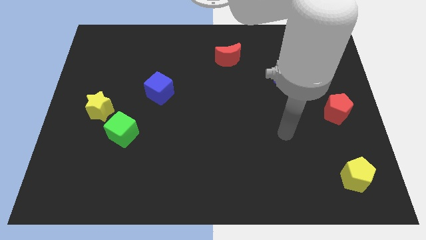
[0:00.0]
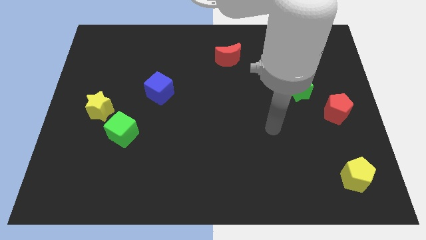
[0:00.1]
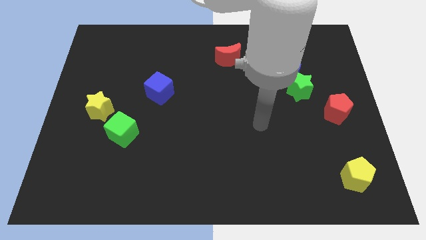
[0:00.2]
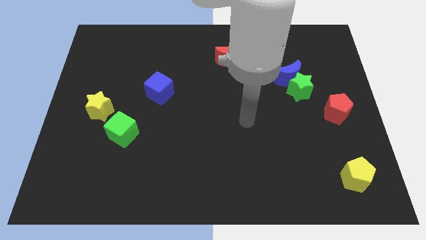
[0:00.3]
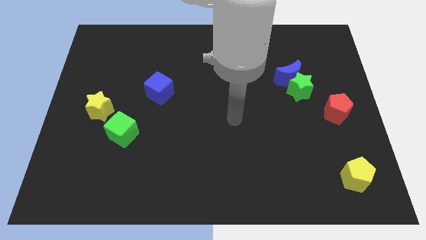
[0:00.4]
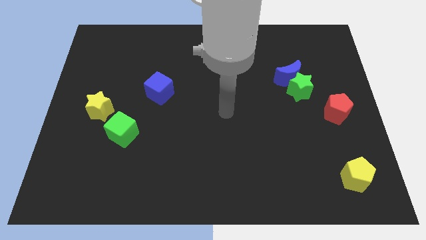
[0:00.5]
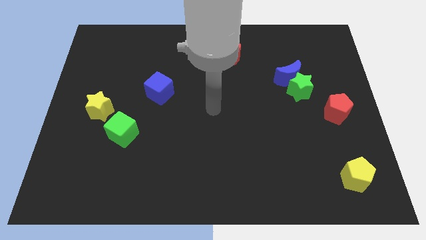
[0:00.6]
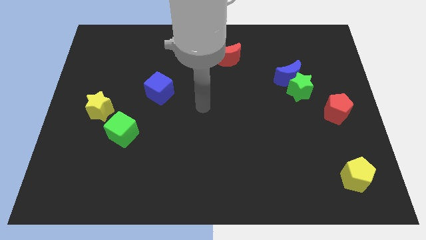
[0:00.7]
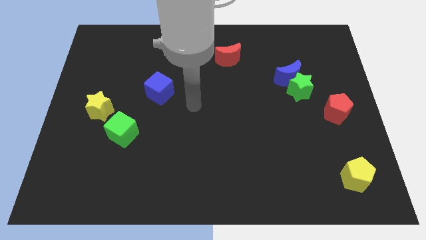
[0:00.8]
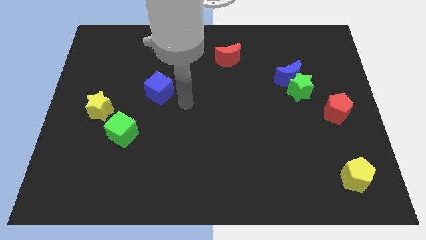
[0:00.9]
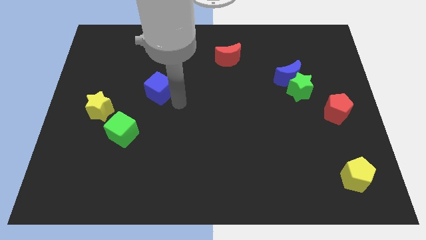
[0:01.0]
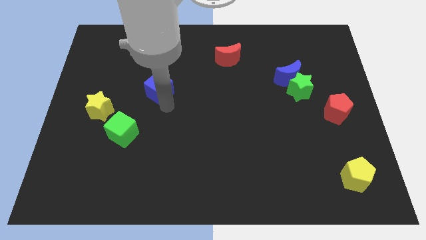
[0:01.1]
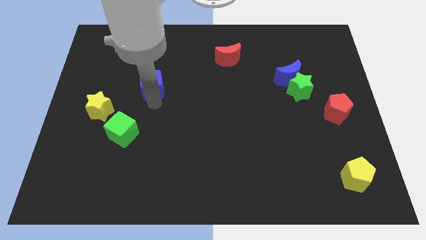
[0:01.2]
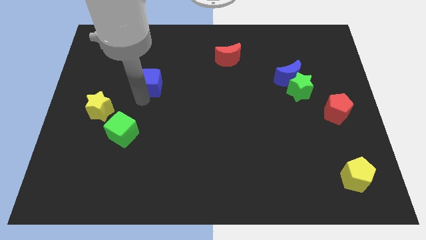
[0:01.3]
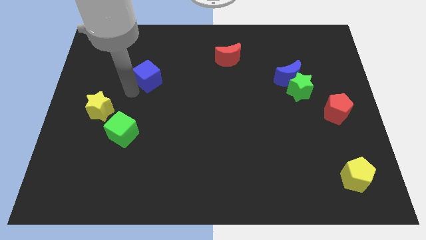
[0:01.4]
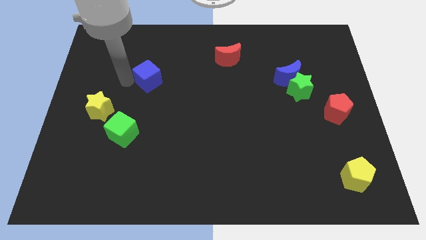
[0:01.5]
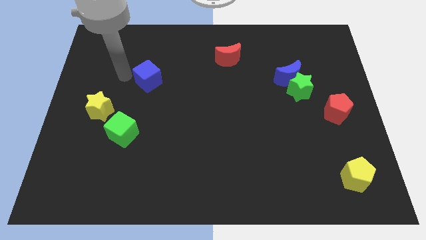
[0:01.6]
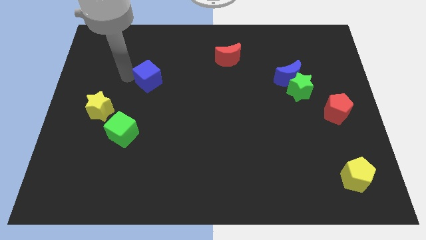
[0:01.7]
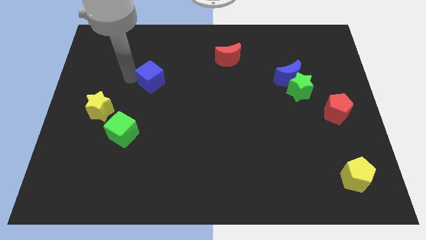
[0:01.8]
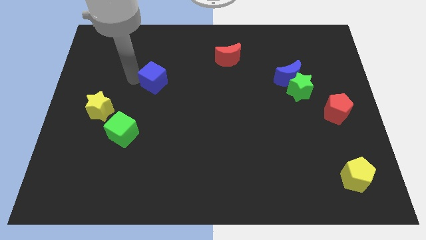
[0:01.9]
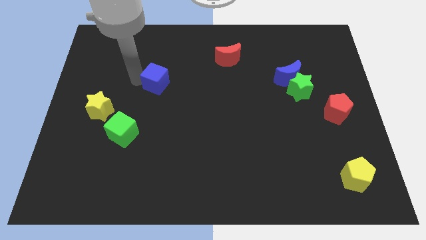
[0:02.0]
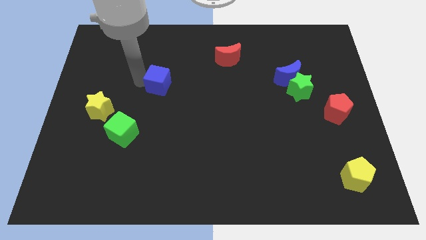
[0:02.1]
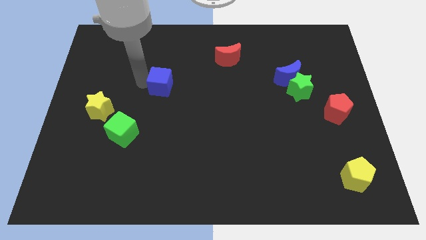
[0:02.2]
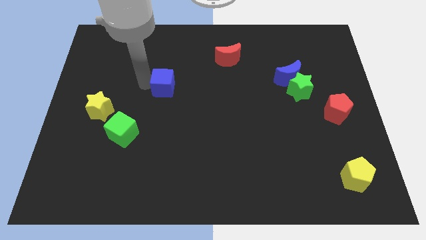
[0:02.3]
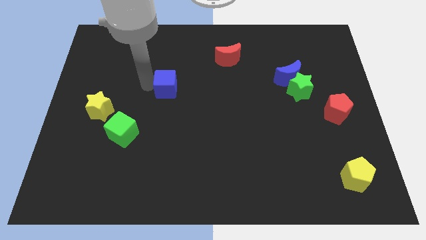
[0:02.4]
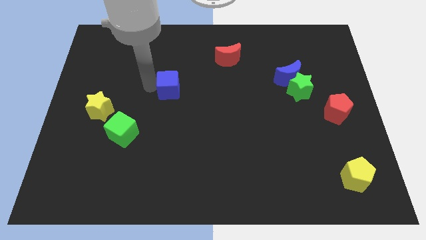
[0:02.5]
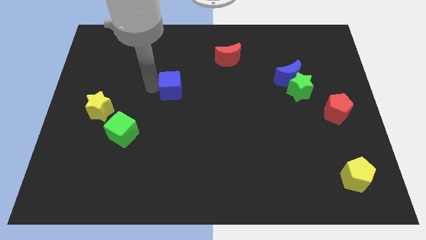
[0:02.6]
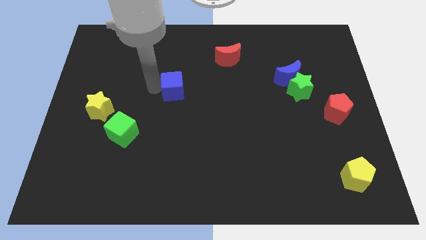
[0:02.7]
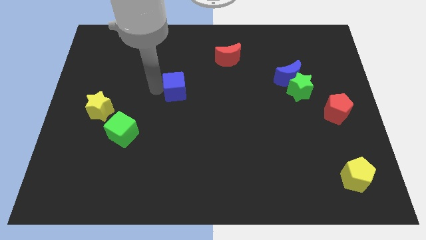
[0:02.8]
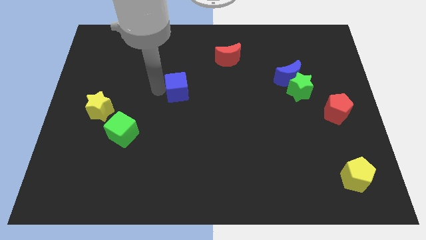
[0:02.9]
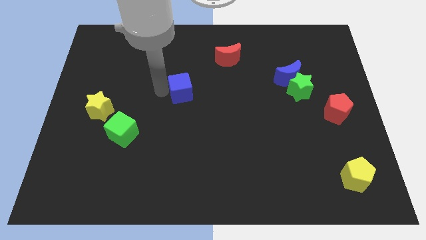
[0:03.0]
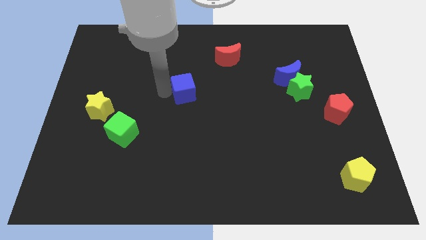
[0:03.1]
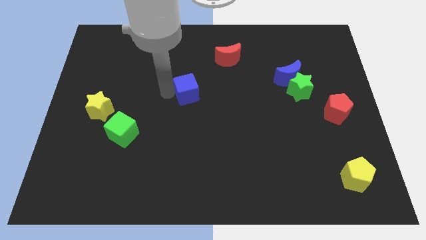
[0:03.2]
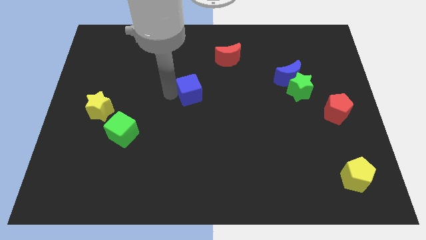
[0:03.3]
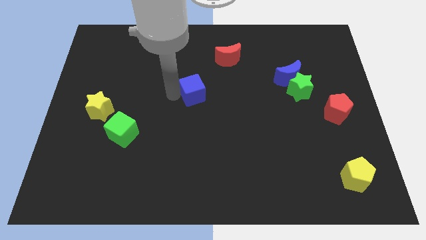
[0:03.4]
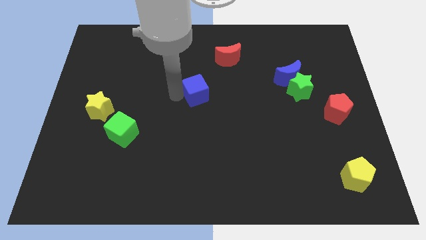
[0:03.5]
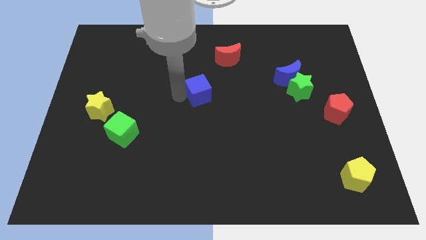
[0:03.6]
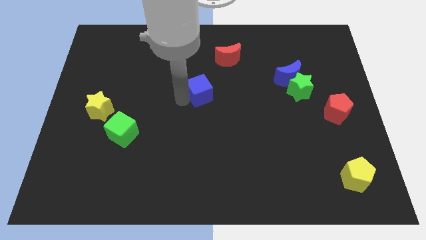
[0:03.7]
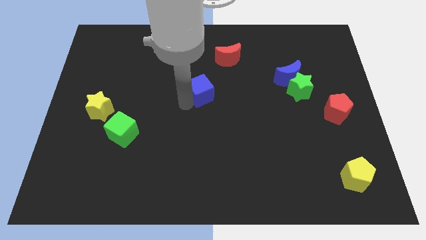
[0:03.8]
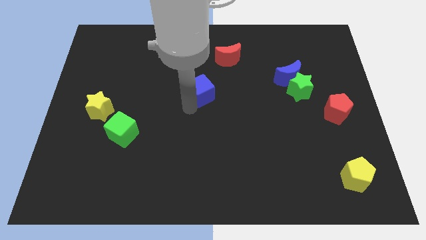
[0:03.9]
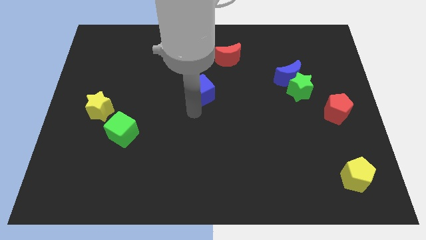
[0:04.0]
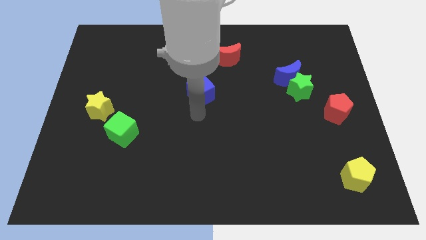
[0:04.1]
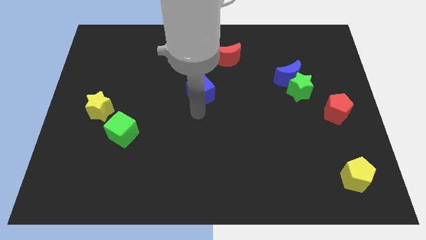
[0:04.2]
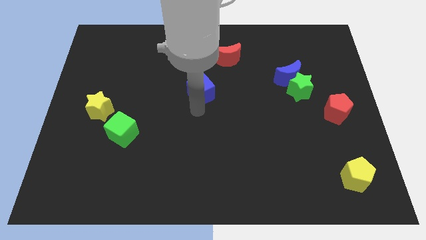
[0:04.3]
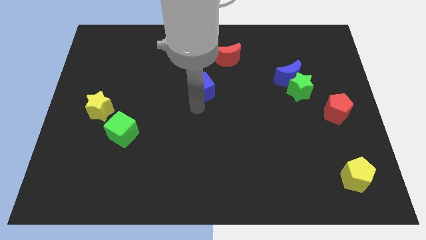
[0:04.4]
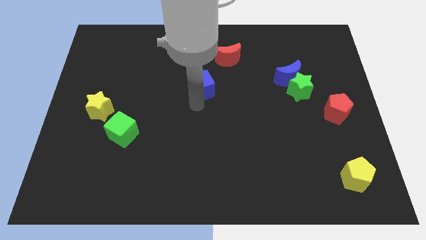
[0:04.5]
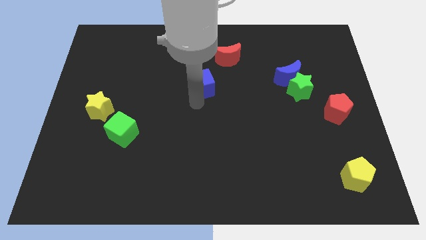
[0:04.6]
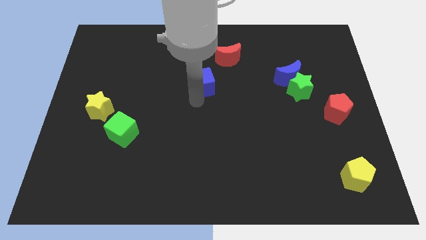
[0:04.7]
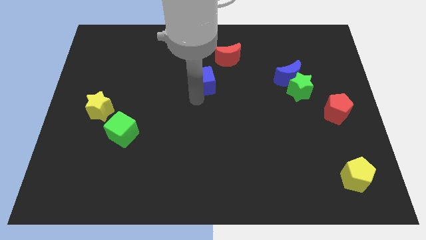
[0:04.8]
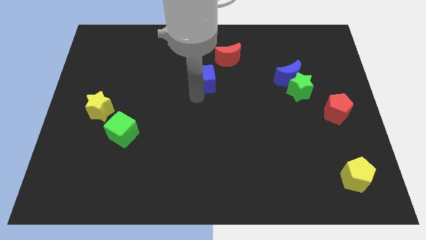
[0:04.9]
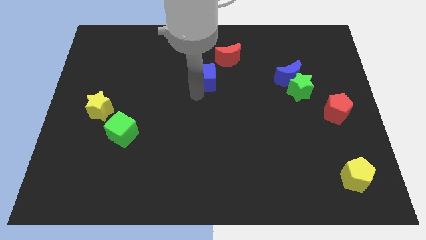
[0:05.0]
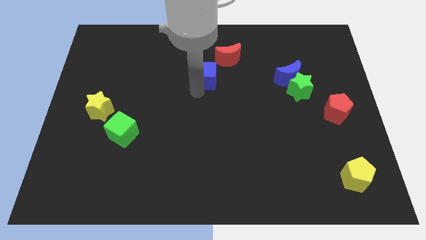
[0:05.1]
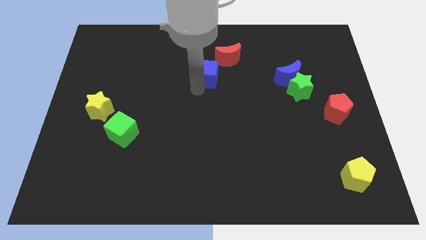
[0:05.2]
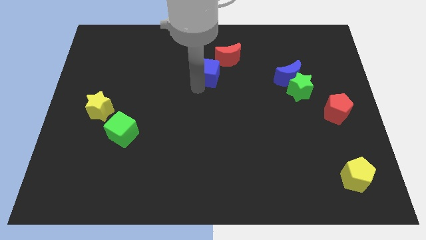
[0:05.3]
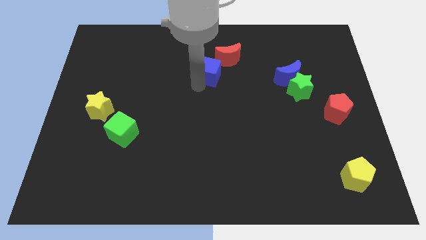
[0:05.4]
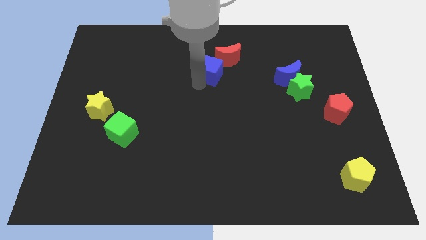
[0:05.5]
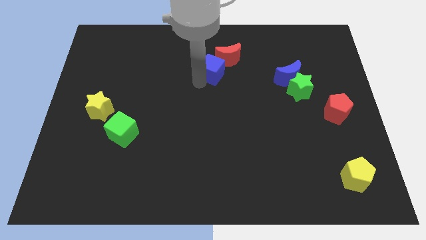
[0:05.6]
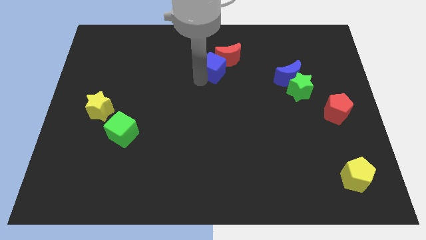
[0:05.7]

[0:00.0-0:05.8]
slide the blue cube to the red moon

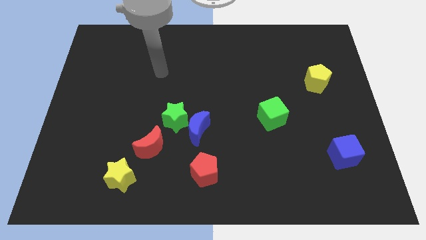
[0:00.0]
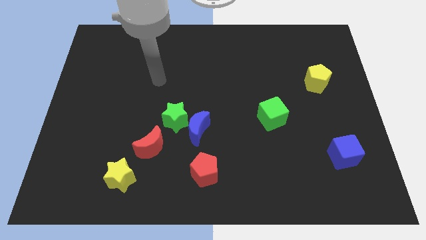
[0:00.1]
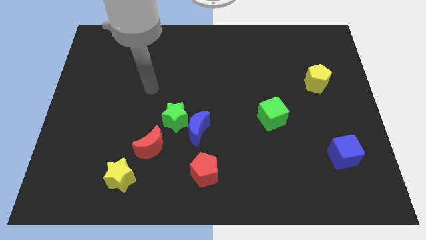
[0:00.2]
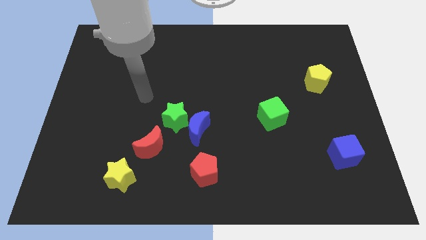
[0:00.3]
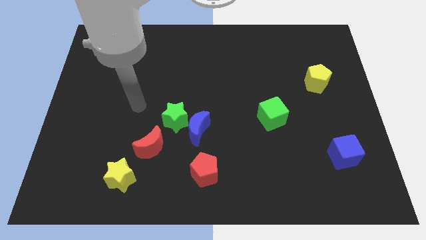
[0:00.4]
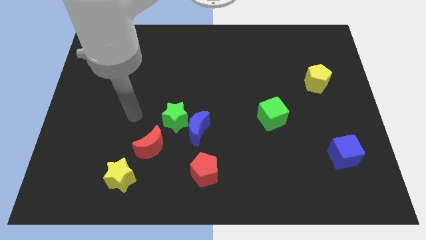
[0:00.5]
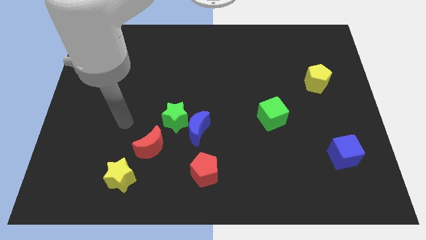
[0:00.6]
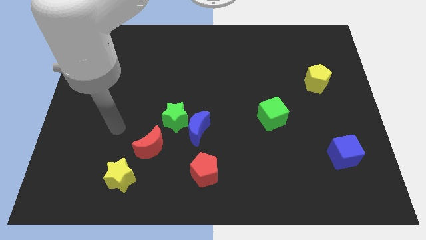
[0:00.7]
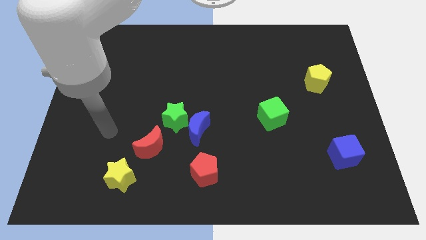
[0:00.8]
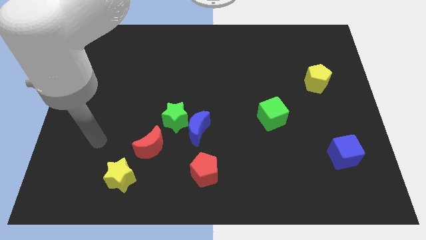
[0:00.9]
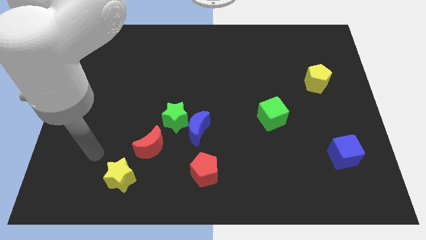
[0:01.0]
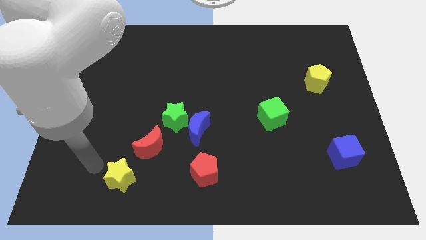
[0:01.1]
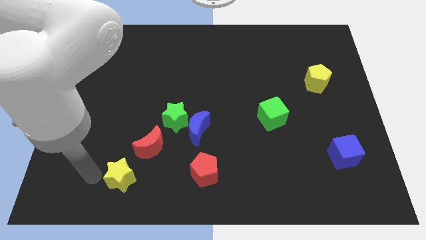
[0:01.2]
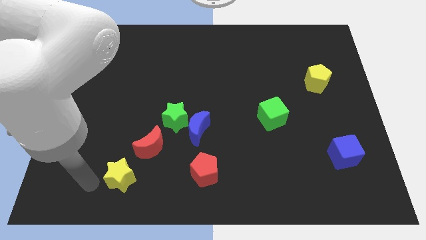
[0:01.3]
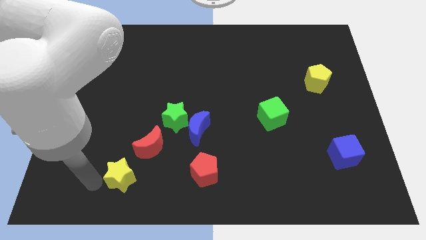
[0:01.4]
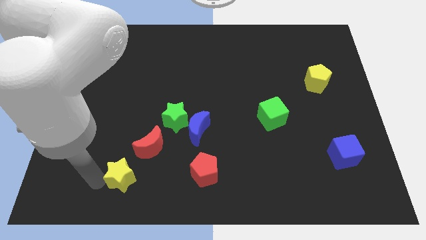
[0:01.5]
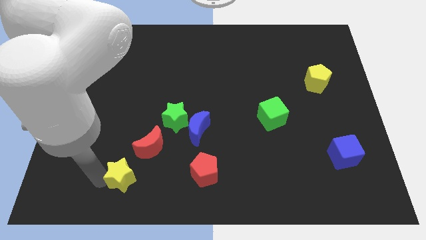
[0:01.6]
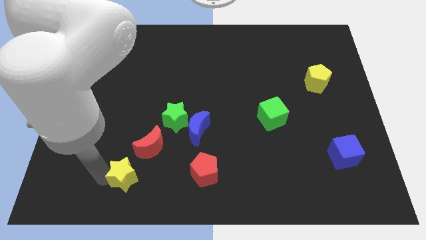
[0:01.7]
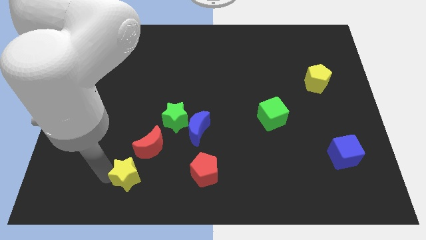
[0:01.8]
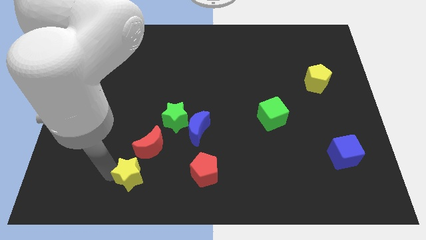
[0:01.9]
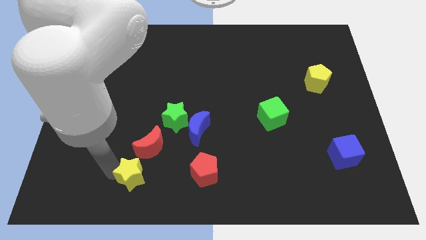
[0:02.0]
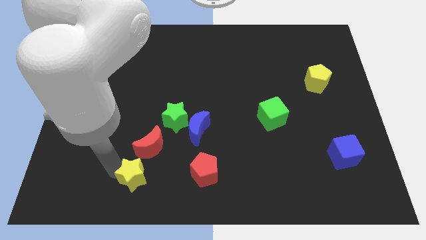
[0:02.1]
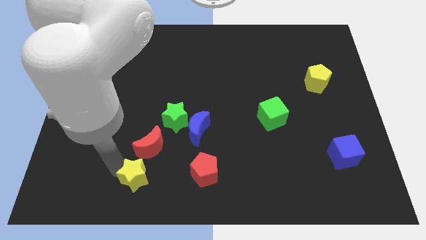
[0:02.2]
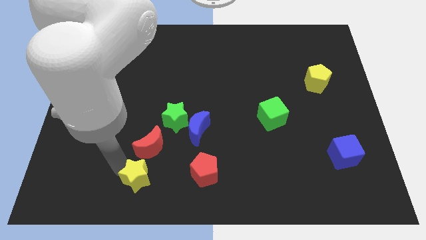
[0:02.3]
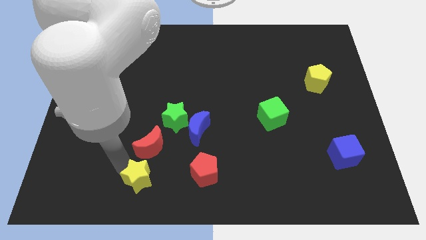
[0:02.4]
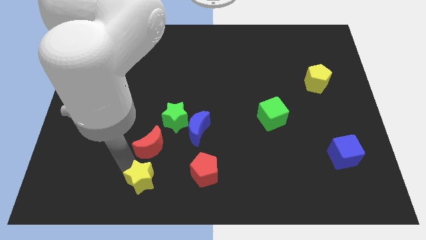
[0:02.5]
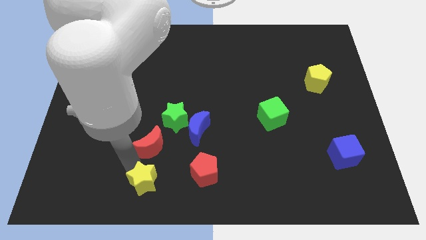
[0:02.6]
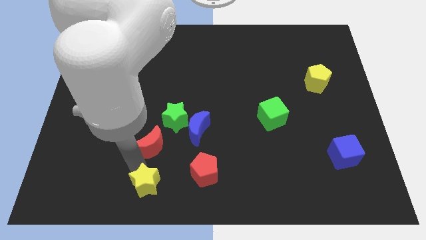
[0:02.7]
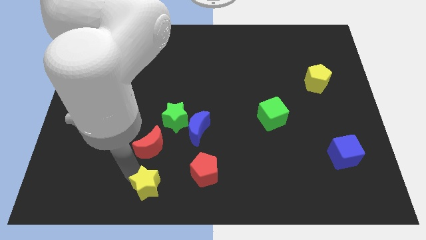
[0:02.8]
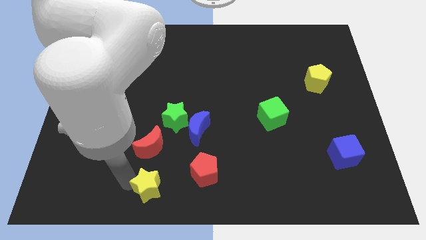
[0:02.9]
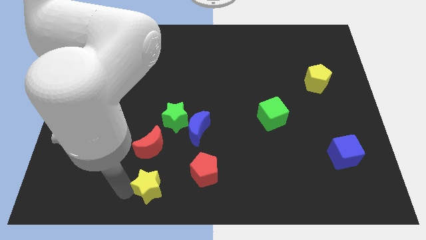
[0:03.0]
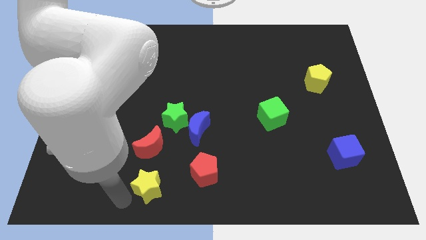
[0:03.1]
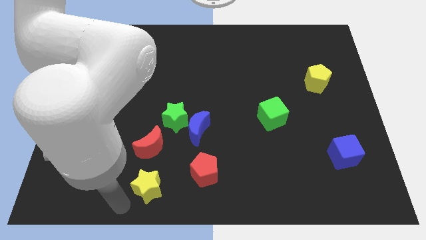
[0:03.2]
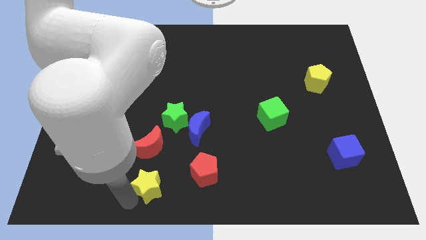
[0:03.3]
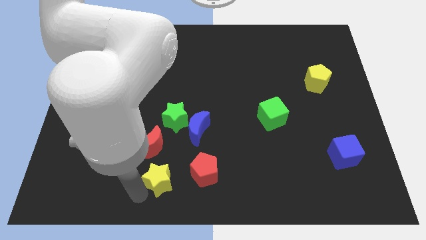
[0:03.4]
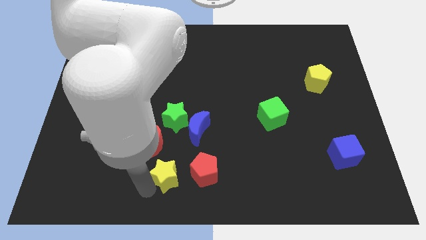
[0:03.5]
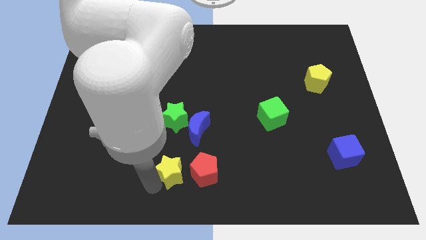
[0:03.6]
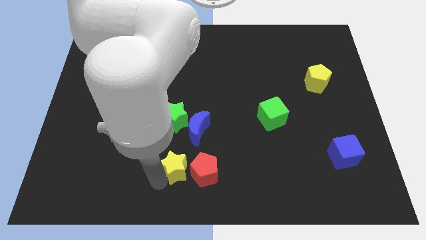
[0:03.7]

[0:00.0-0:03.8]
push the yellow star towards the red pentagon
